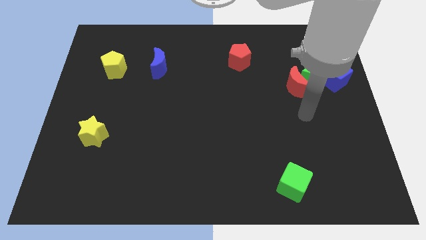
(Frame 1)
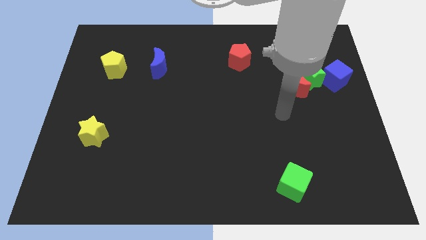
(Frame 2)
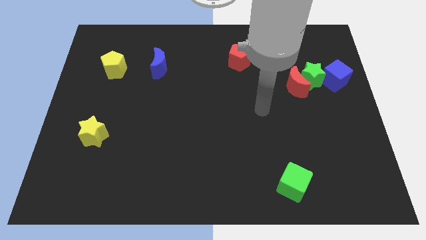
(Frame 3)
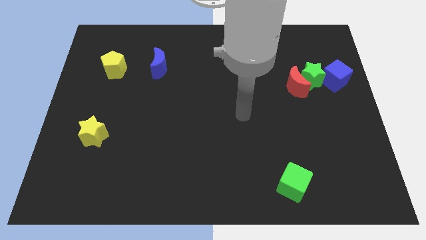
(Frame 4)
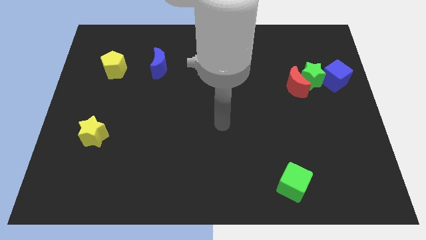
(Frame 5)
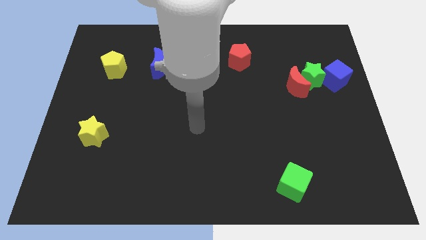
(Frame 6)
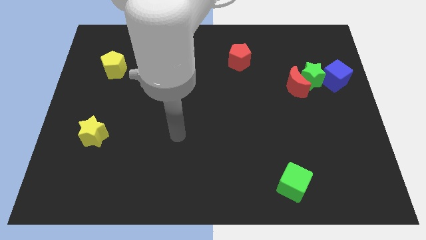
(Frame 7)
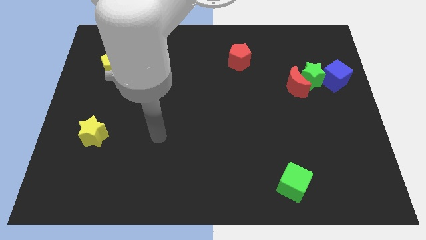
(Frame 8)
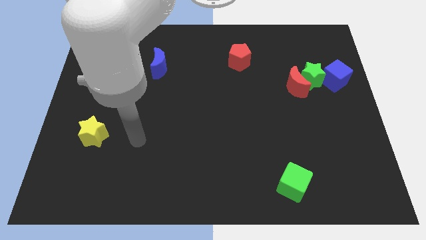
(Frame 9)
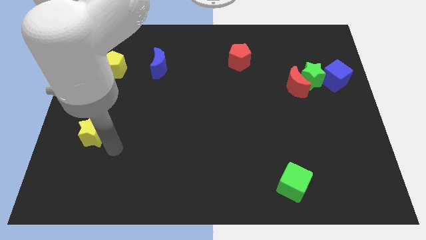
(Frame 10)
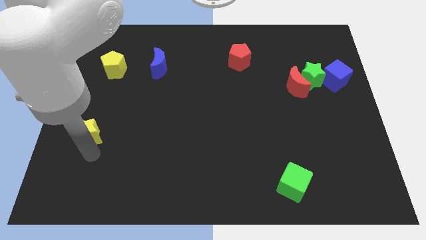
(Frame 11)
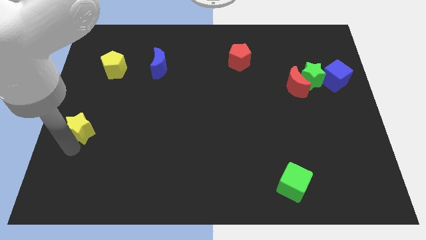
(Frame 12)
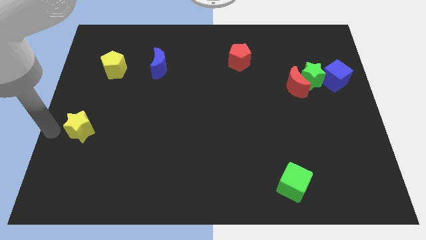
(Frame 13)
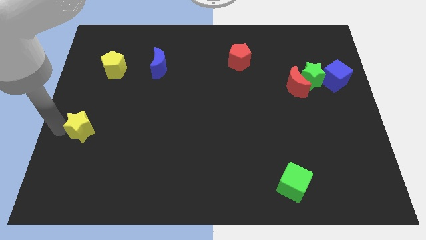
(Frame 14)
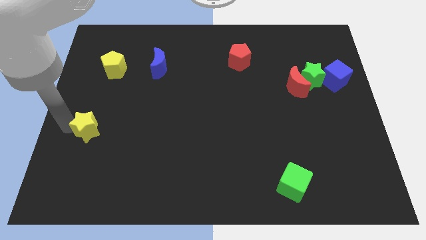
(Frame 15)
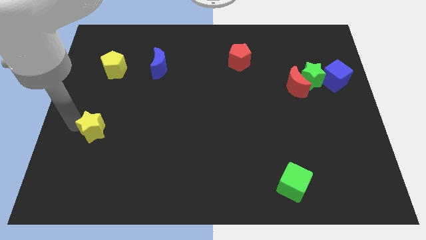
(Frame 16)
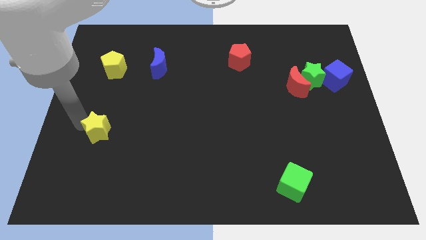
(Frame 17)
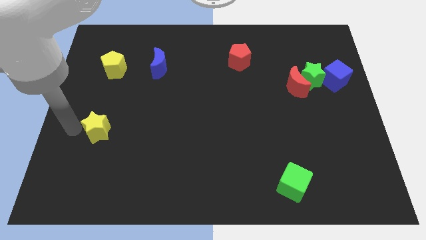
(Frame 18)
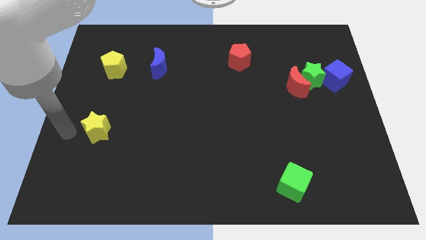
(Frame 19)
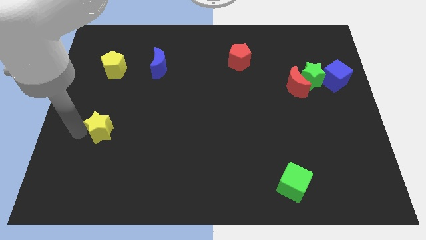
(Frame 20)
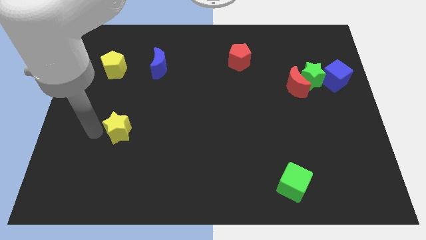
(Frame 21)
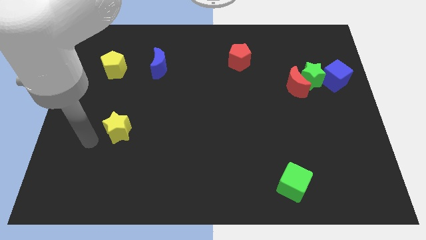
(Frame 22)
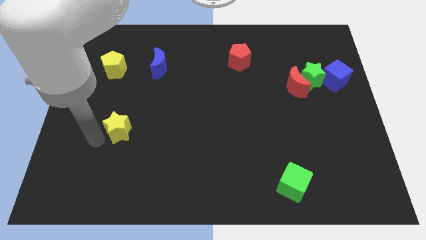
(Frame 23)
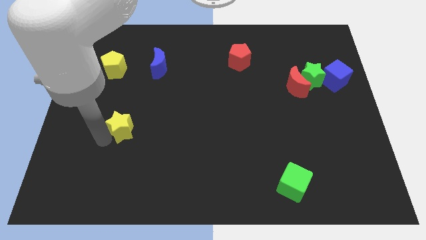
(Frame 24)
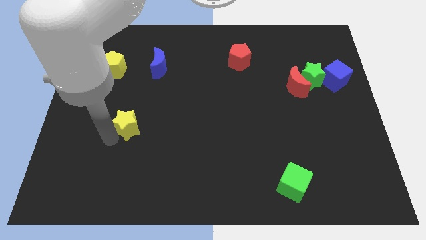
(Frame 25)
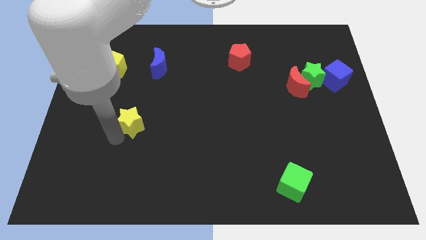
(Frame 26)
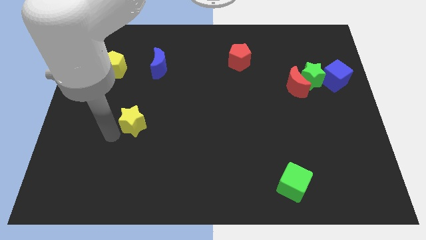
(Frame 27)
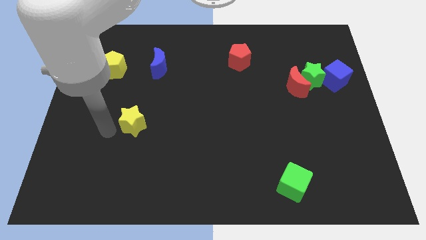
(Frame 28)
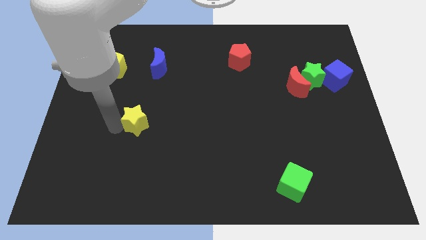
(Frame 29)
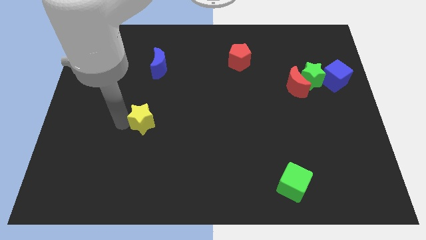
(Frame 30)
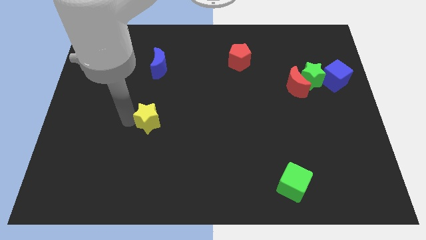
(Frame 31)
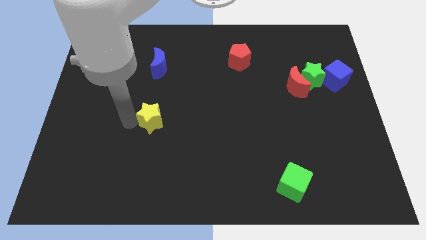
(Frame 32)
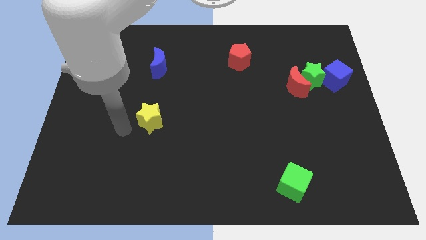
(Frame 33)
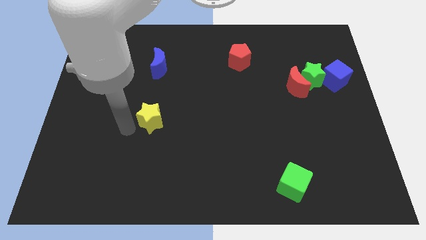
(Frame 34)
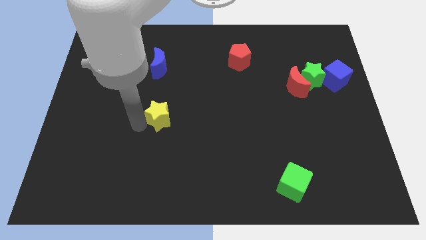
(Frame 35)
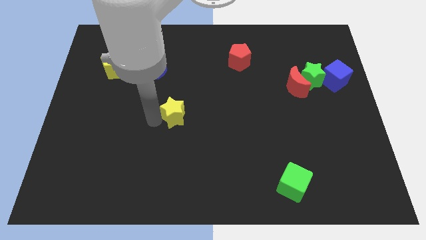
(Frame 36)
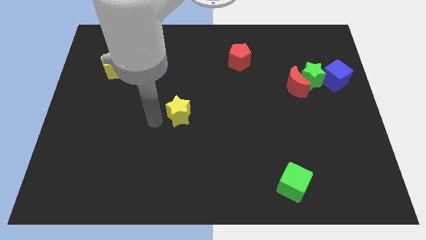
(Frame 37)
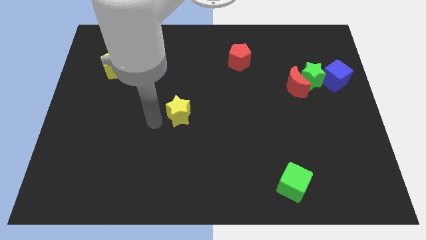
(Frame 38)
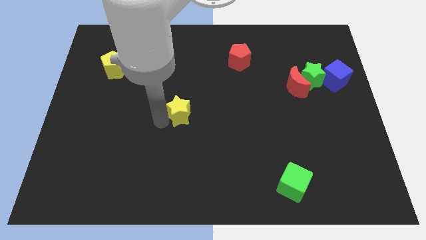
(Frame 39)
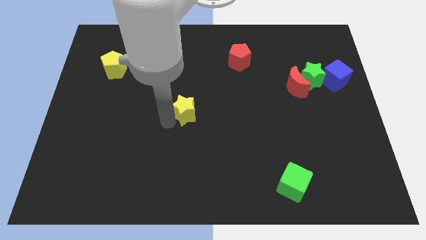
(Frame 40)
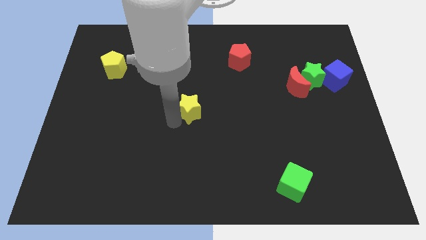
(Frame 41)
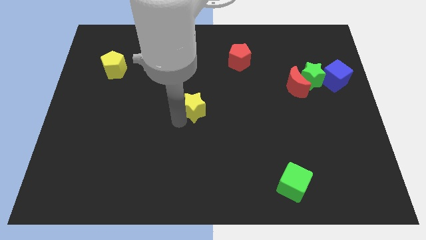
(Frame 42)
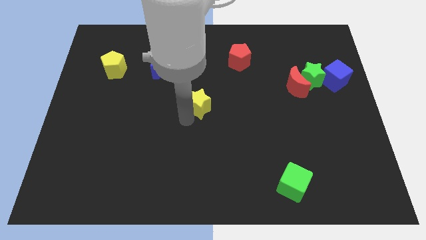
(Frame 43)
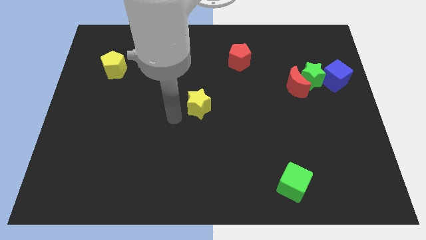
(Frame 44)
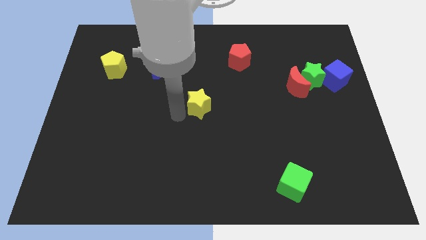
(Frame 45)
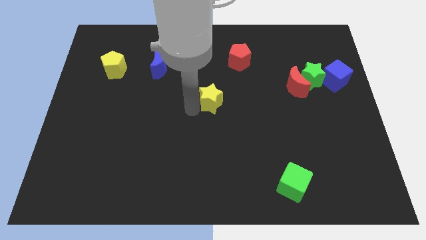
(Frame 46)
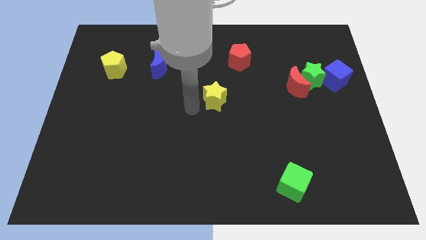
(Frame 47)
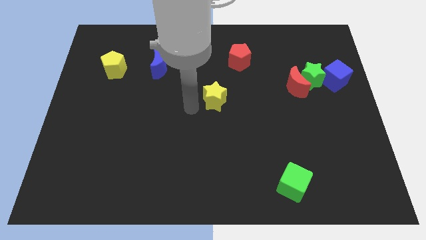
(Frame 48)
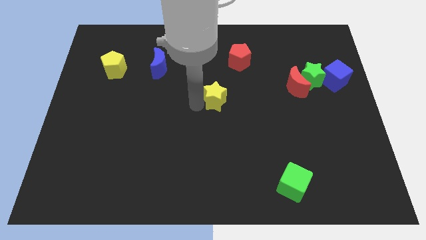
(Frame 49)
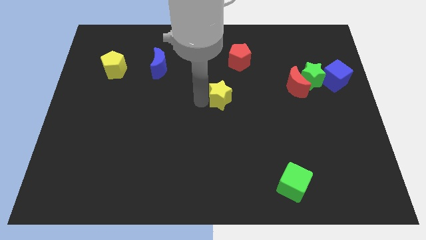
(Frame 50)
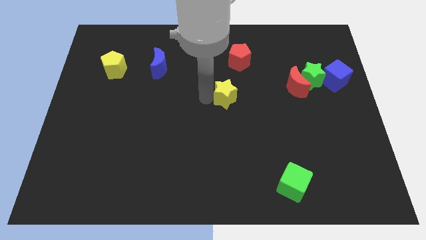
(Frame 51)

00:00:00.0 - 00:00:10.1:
push the yellow star to the bottom side of the red pentagon

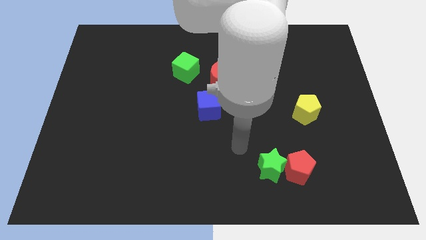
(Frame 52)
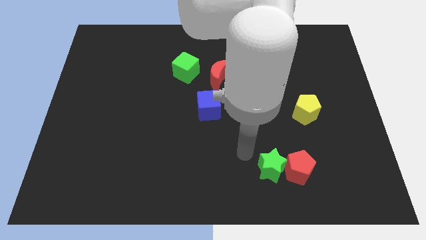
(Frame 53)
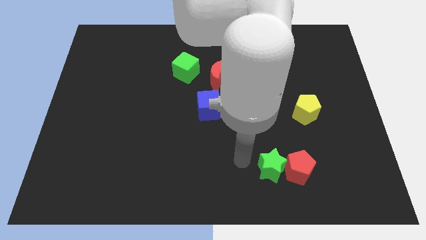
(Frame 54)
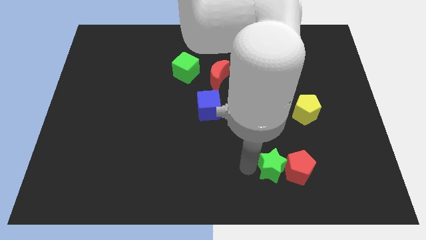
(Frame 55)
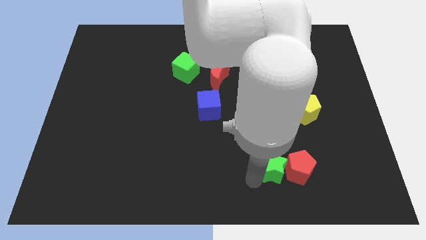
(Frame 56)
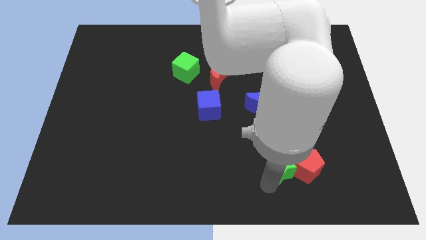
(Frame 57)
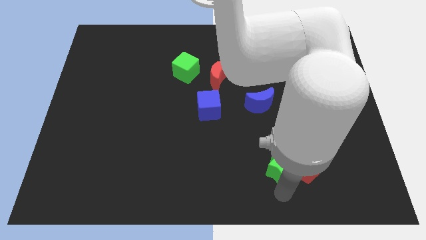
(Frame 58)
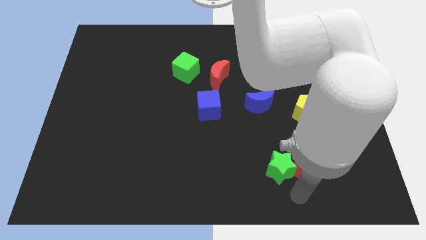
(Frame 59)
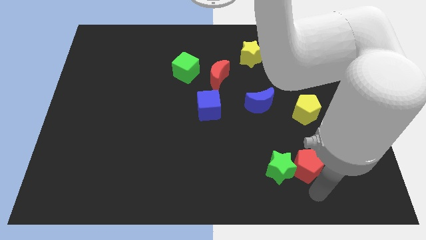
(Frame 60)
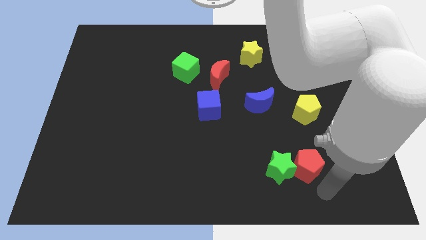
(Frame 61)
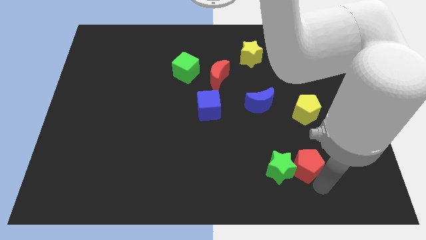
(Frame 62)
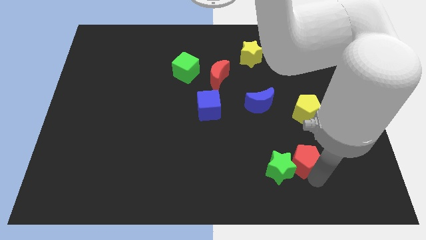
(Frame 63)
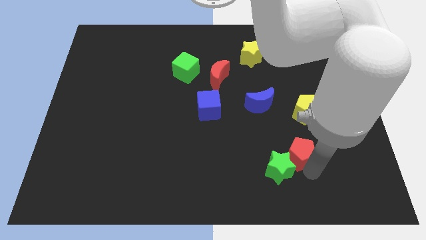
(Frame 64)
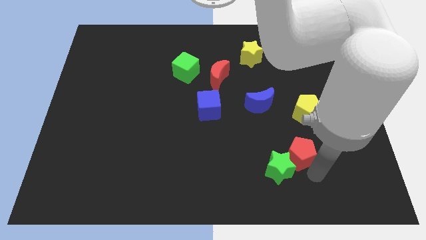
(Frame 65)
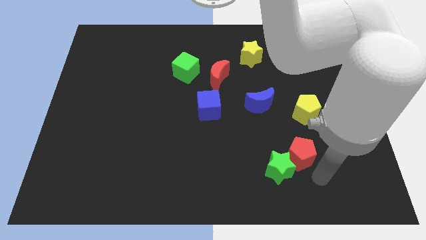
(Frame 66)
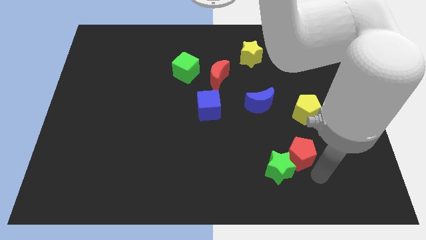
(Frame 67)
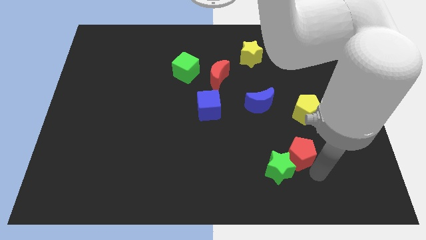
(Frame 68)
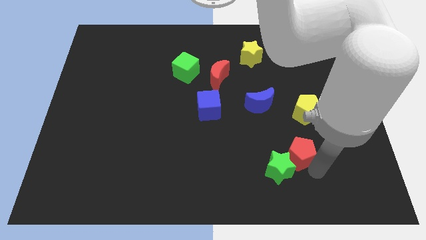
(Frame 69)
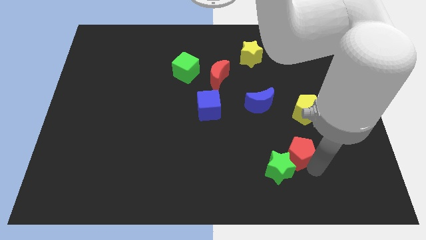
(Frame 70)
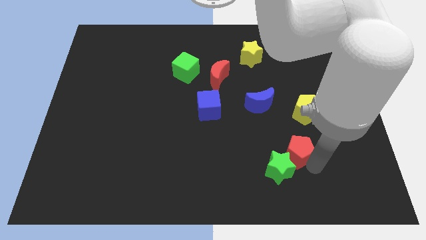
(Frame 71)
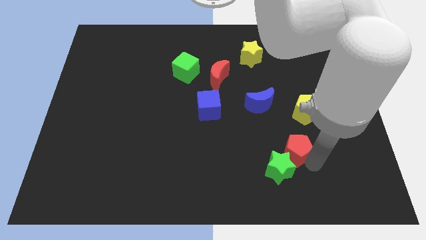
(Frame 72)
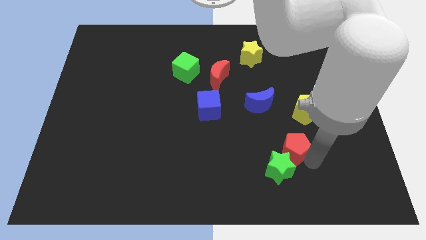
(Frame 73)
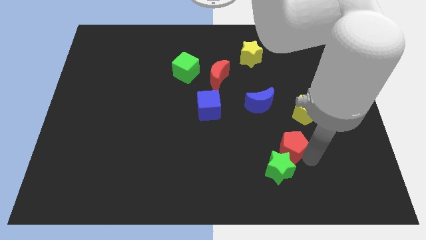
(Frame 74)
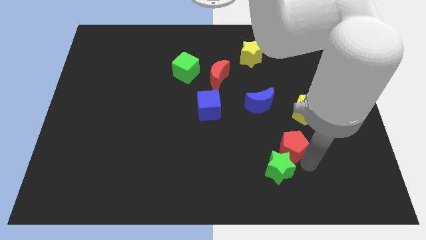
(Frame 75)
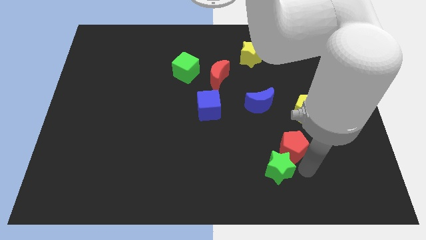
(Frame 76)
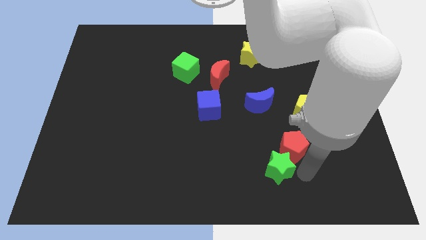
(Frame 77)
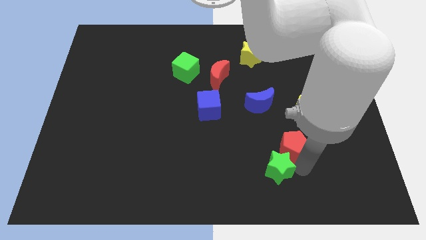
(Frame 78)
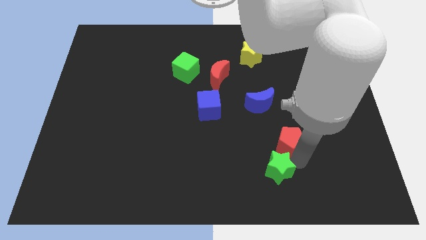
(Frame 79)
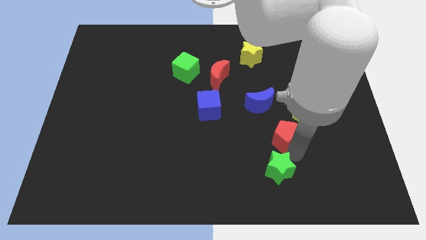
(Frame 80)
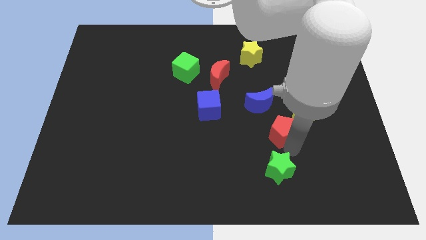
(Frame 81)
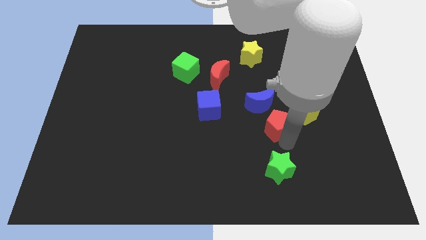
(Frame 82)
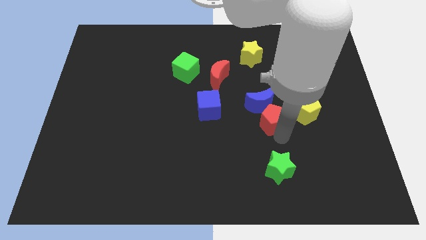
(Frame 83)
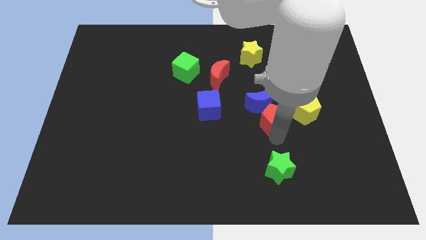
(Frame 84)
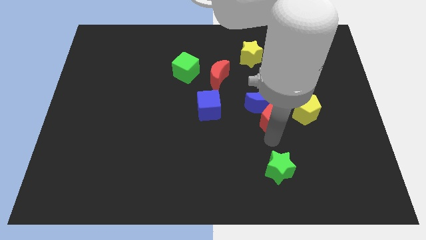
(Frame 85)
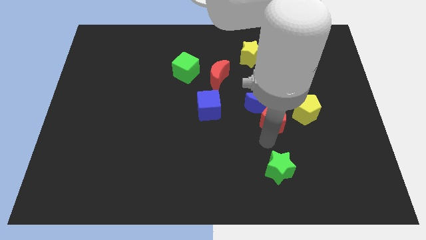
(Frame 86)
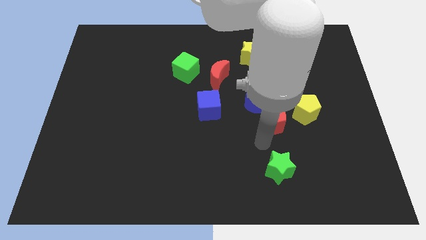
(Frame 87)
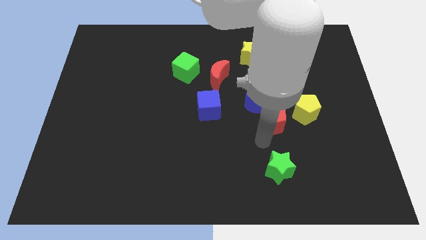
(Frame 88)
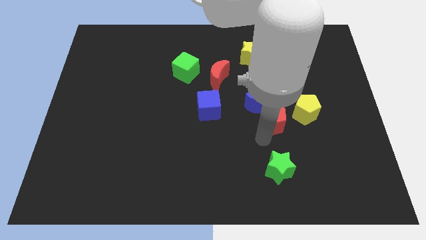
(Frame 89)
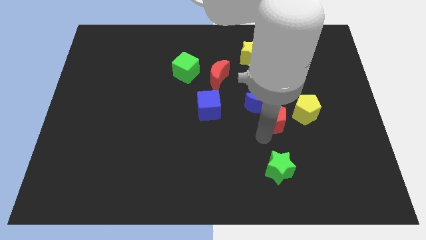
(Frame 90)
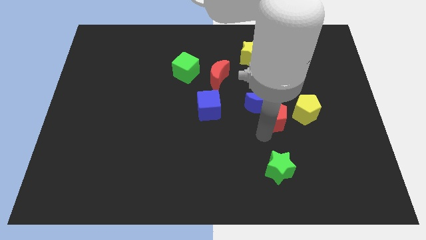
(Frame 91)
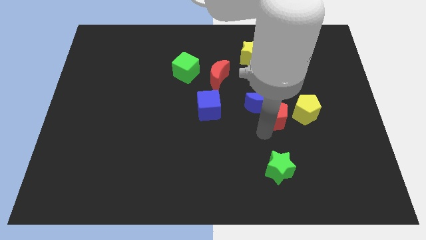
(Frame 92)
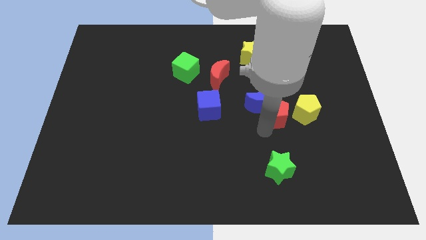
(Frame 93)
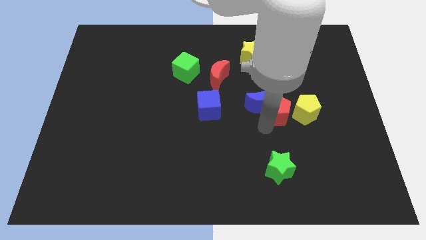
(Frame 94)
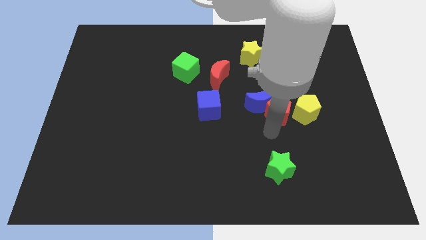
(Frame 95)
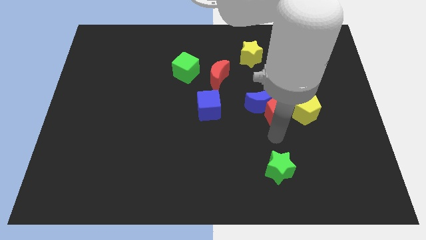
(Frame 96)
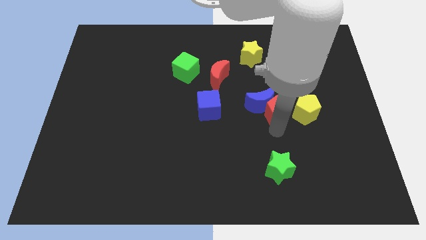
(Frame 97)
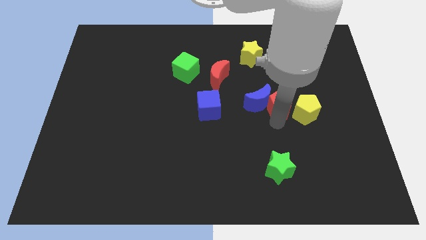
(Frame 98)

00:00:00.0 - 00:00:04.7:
move the red pentagon to the top right of the blue moon
